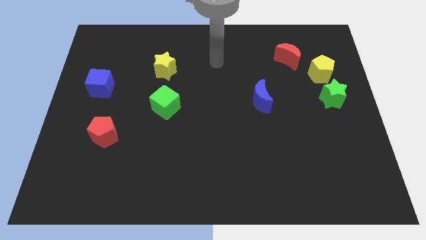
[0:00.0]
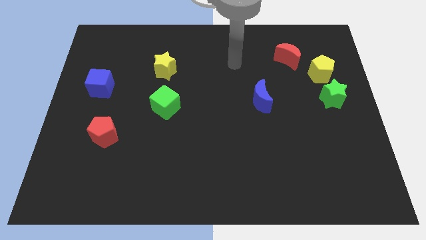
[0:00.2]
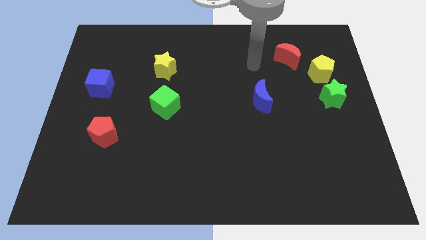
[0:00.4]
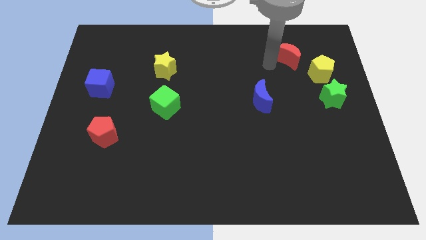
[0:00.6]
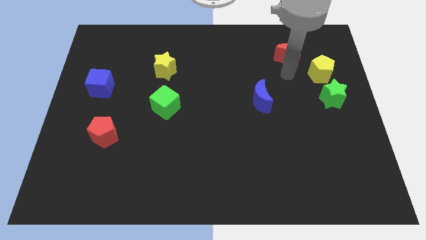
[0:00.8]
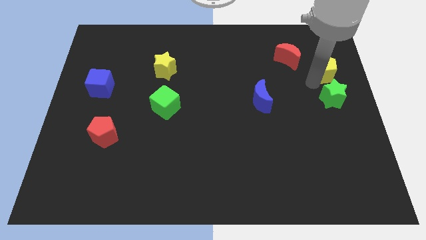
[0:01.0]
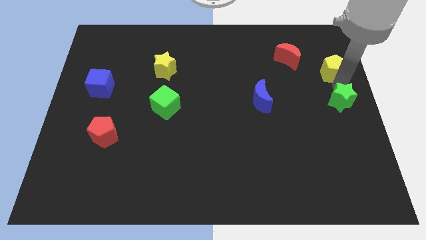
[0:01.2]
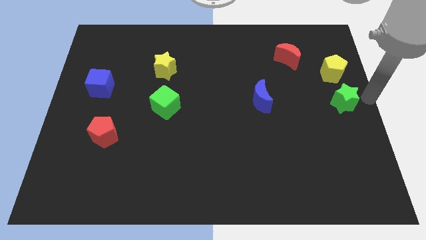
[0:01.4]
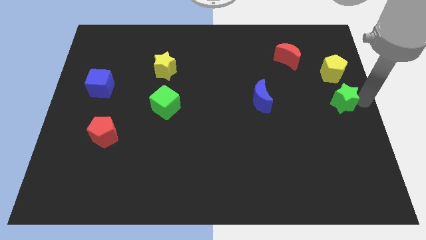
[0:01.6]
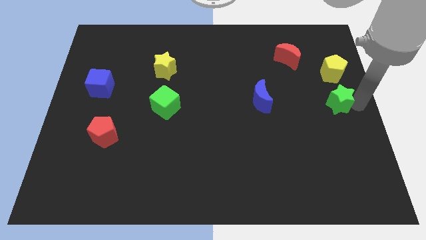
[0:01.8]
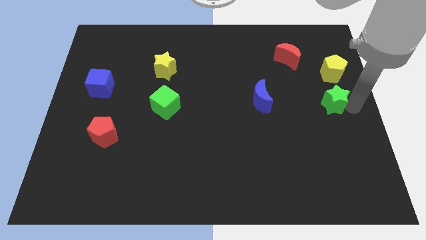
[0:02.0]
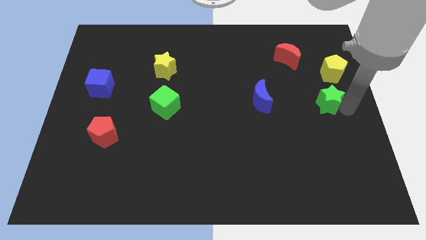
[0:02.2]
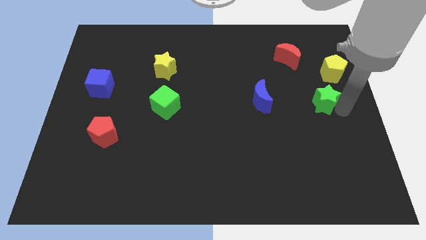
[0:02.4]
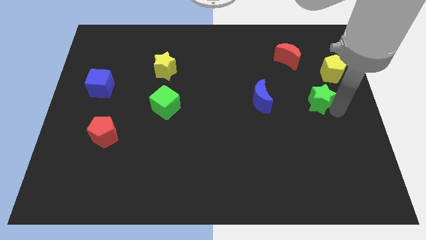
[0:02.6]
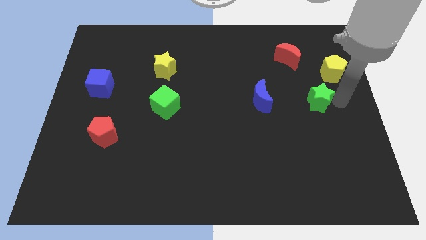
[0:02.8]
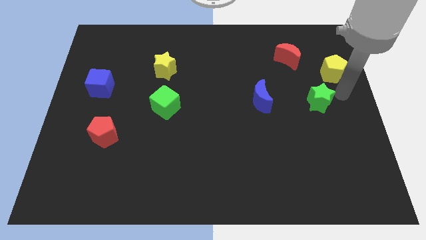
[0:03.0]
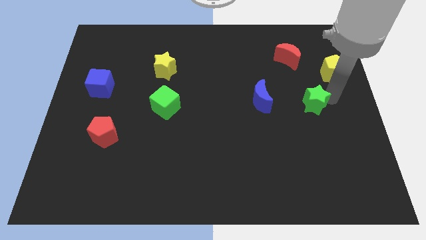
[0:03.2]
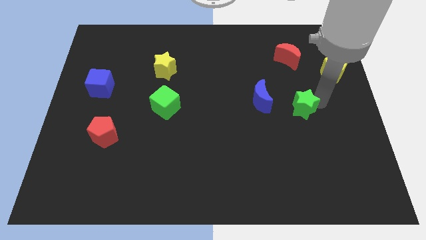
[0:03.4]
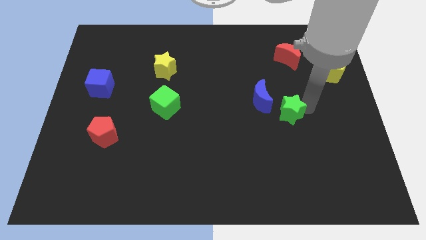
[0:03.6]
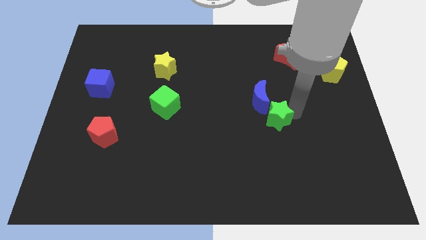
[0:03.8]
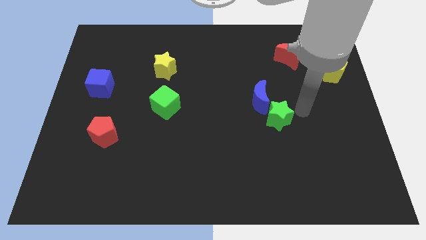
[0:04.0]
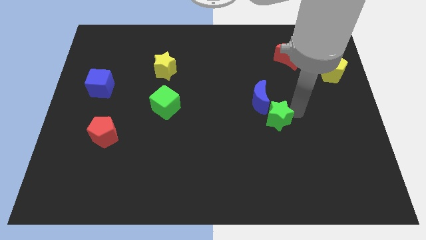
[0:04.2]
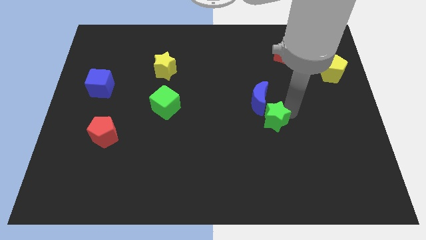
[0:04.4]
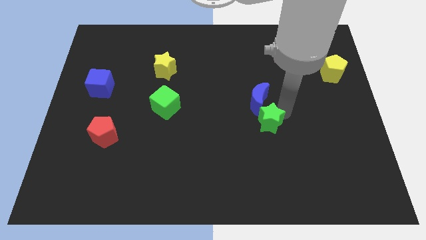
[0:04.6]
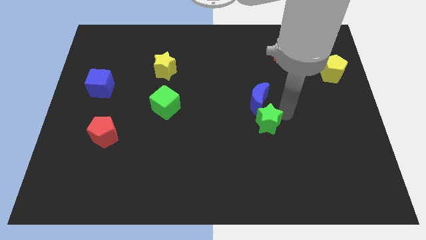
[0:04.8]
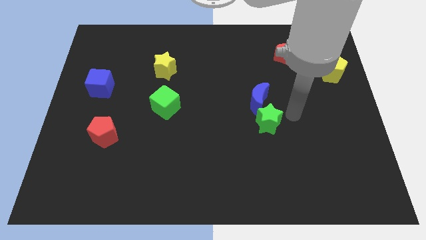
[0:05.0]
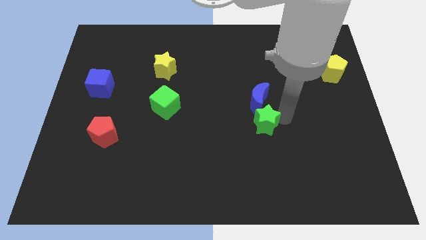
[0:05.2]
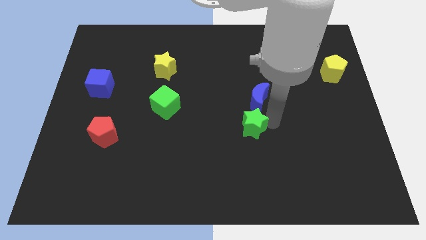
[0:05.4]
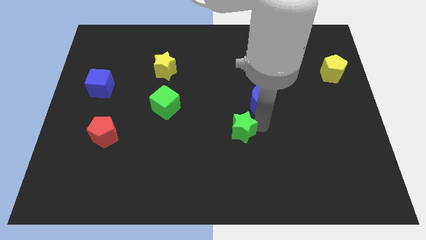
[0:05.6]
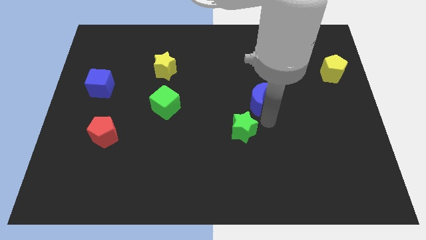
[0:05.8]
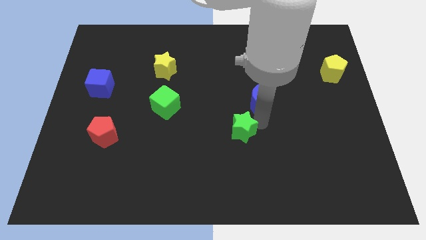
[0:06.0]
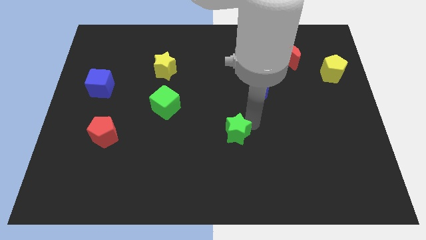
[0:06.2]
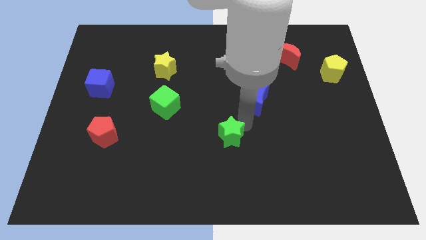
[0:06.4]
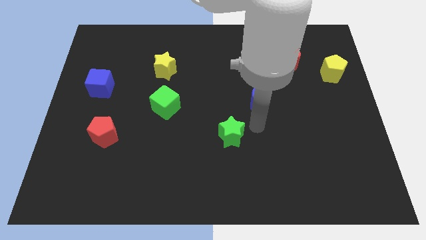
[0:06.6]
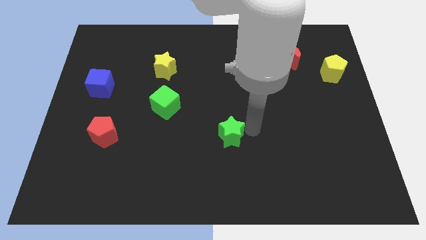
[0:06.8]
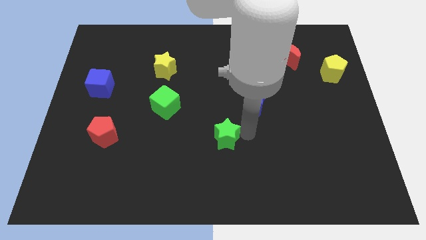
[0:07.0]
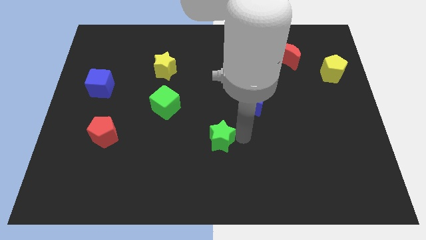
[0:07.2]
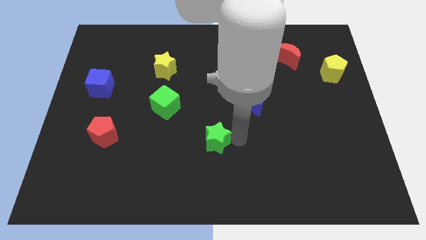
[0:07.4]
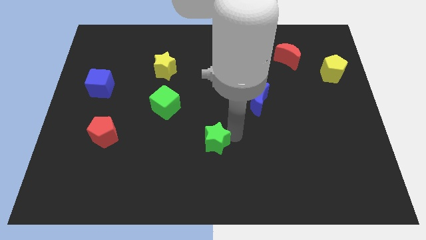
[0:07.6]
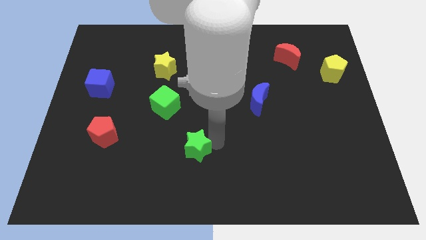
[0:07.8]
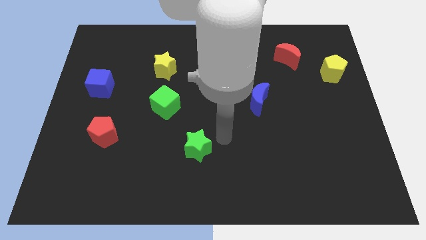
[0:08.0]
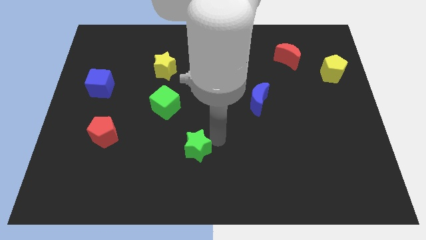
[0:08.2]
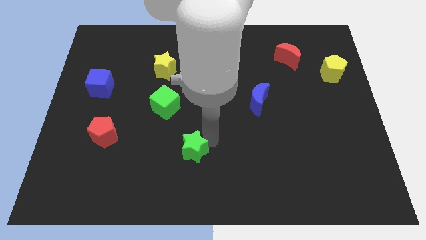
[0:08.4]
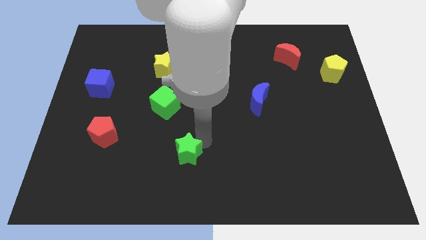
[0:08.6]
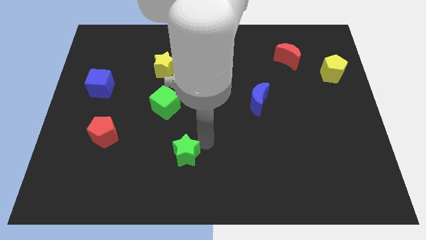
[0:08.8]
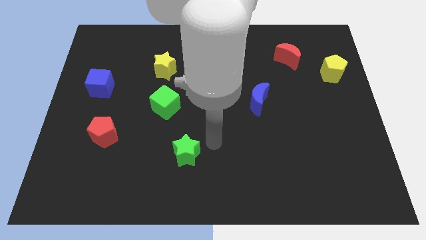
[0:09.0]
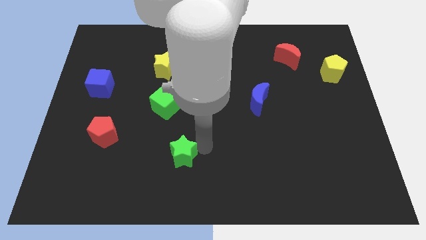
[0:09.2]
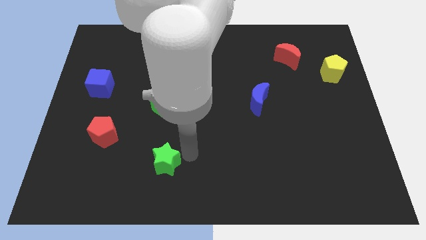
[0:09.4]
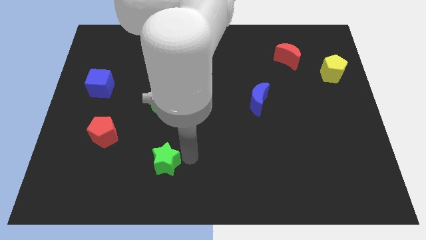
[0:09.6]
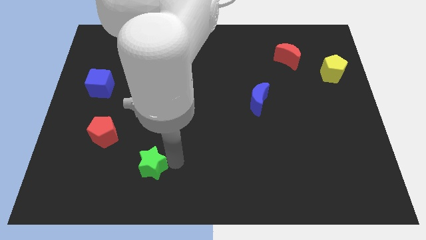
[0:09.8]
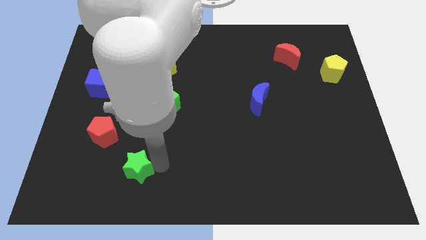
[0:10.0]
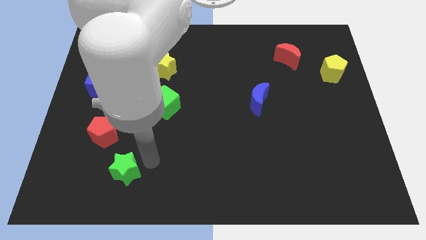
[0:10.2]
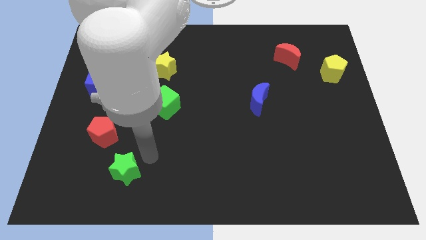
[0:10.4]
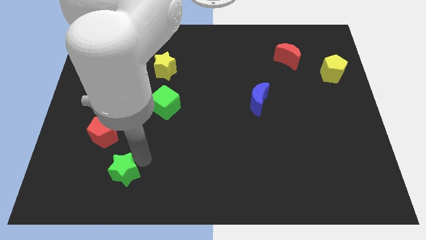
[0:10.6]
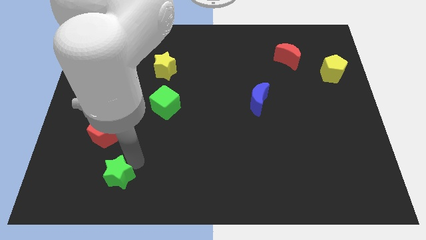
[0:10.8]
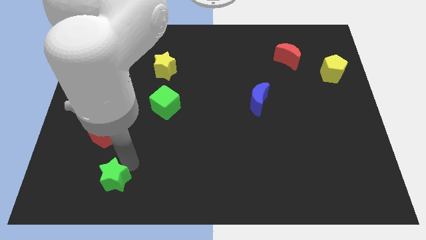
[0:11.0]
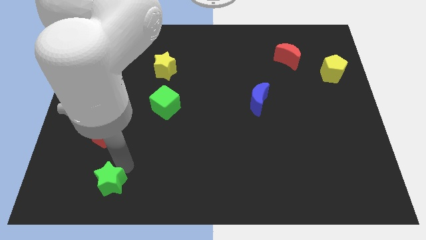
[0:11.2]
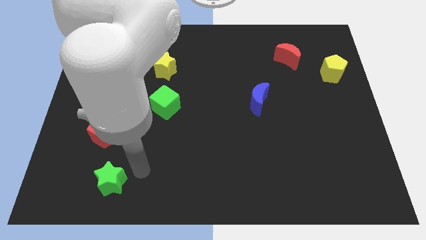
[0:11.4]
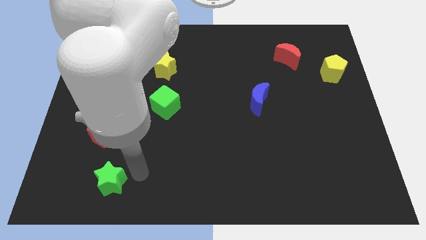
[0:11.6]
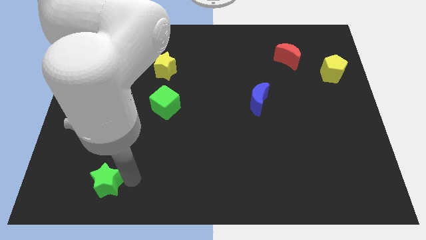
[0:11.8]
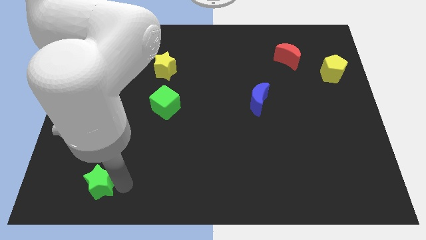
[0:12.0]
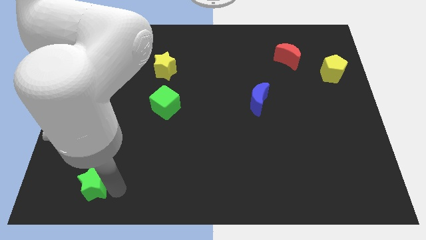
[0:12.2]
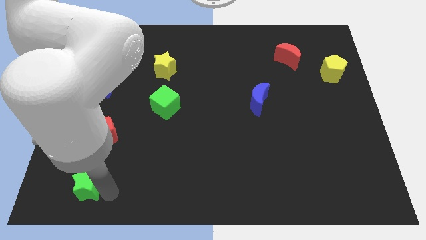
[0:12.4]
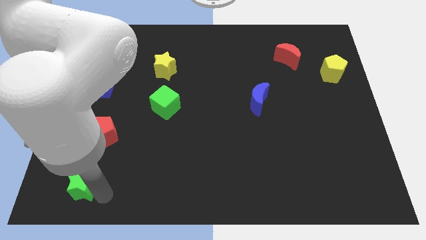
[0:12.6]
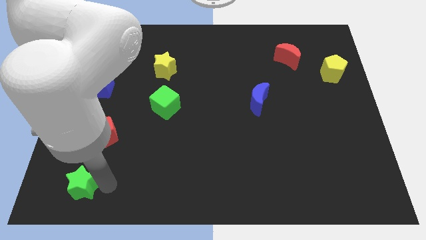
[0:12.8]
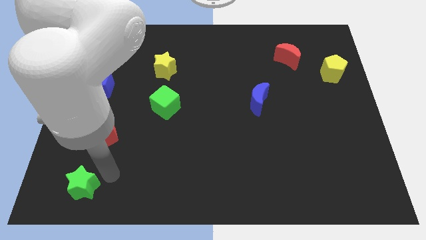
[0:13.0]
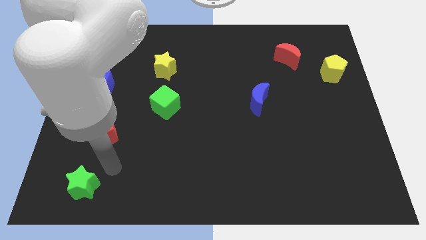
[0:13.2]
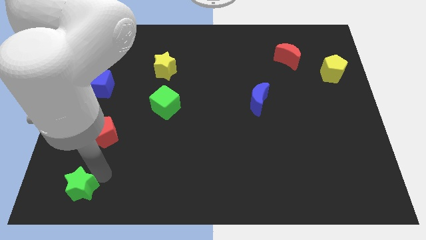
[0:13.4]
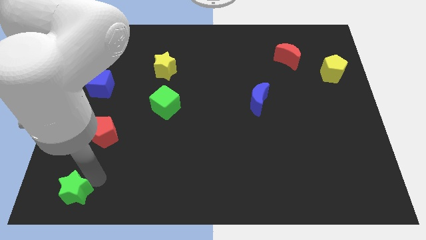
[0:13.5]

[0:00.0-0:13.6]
slide the green star to the bottom left
